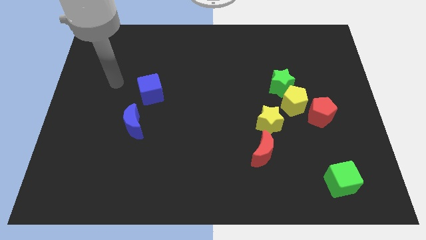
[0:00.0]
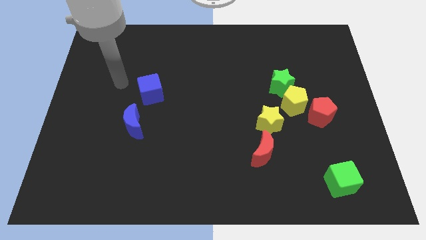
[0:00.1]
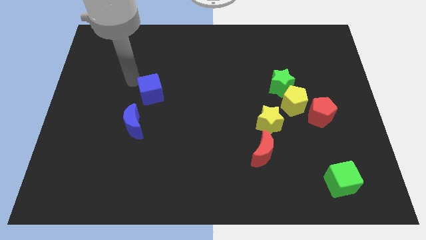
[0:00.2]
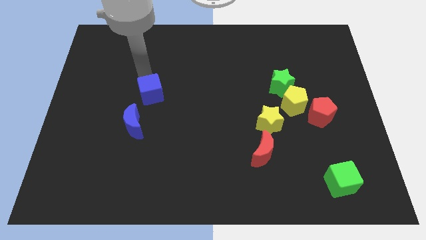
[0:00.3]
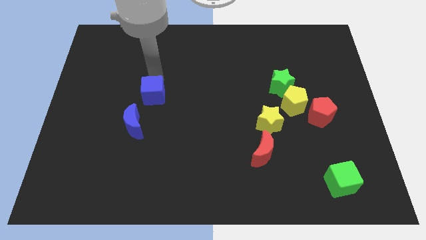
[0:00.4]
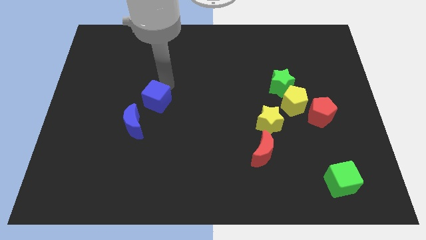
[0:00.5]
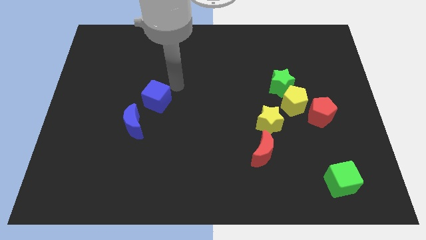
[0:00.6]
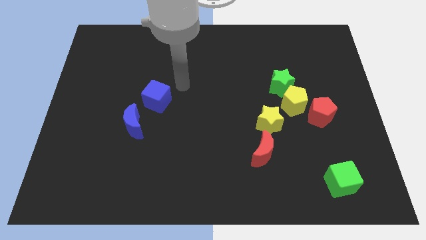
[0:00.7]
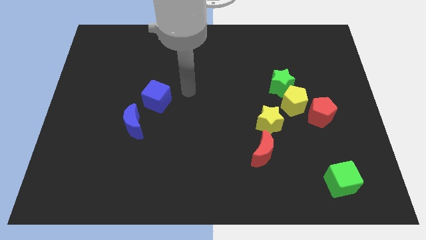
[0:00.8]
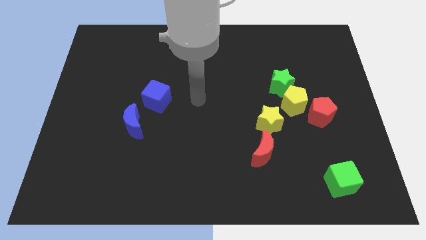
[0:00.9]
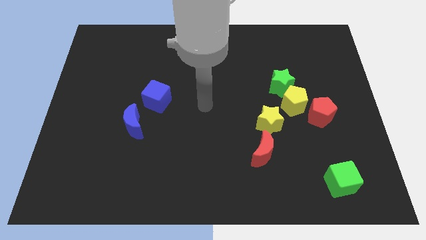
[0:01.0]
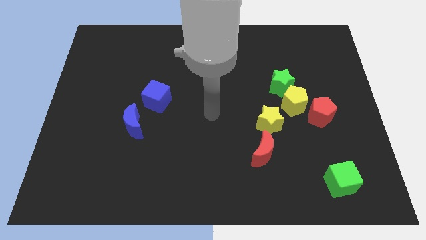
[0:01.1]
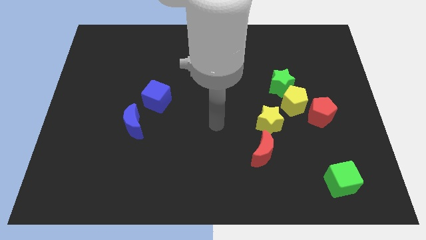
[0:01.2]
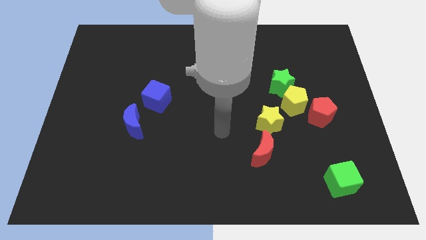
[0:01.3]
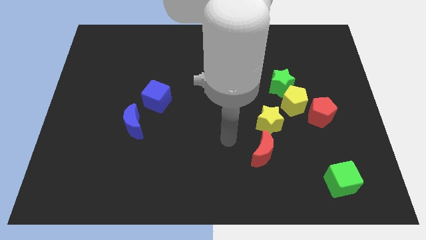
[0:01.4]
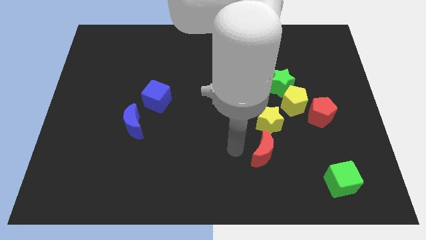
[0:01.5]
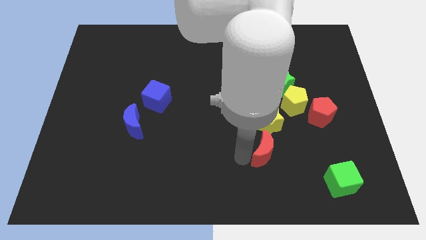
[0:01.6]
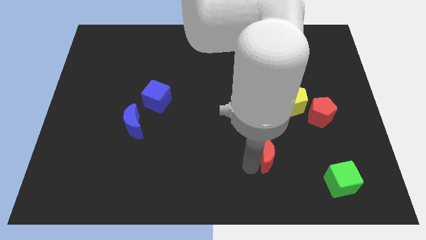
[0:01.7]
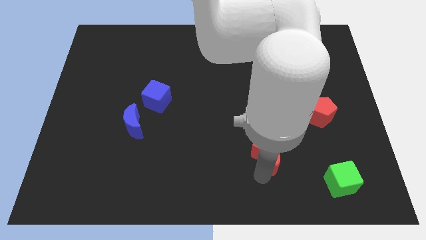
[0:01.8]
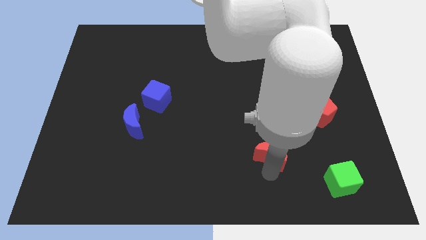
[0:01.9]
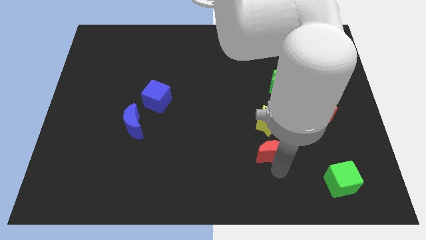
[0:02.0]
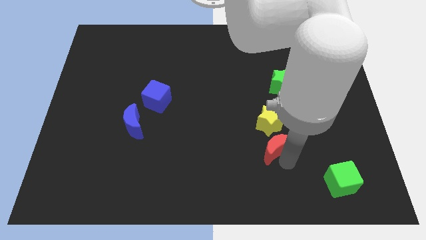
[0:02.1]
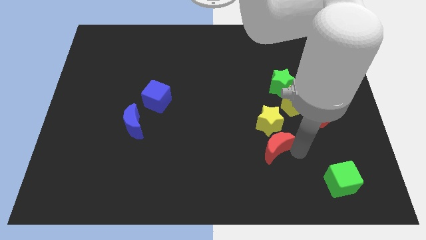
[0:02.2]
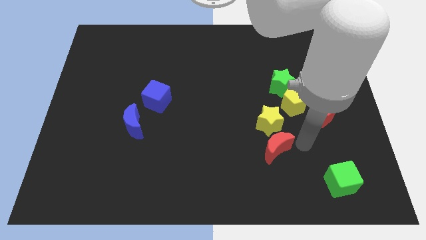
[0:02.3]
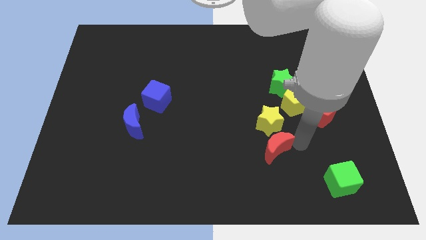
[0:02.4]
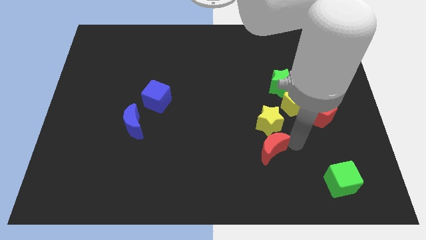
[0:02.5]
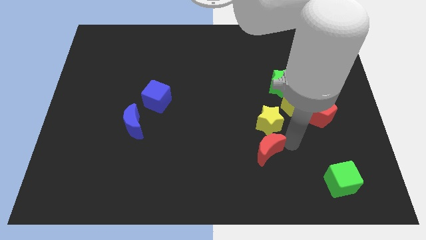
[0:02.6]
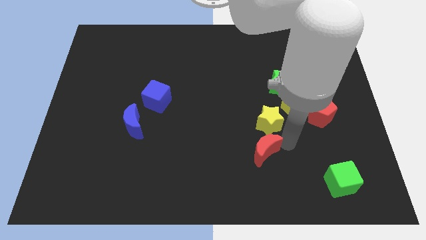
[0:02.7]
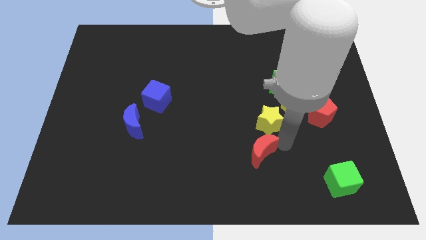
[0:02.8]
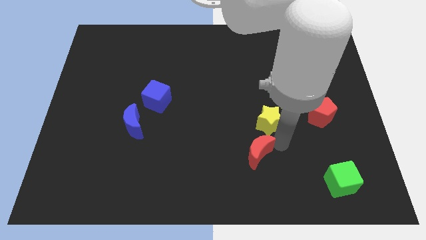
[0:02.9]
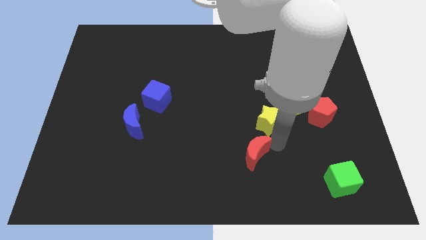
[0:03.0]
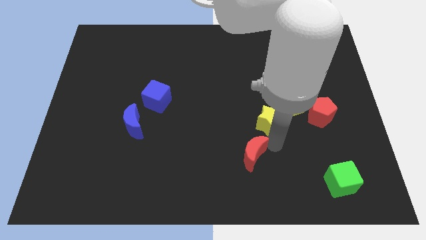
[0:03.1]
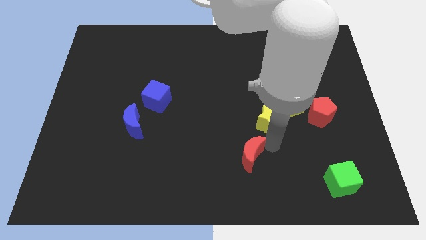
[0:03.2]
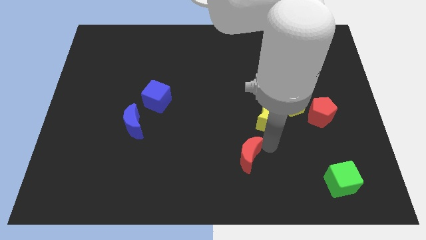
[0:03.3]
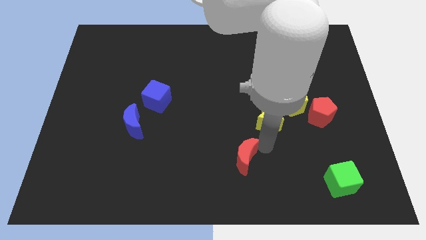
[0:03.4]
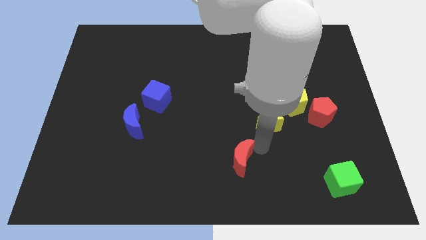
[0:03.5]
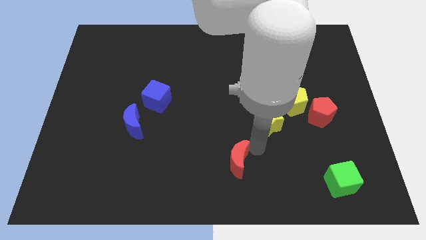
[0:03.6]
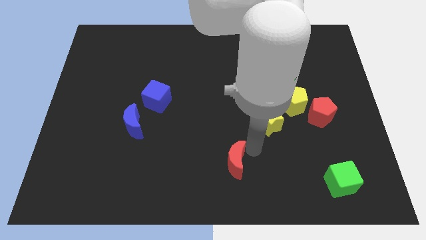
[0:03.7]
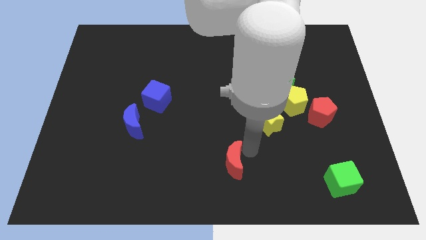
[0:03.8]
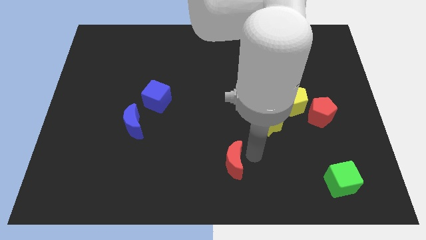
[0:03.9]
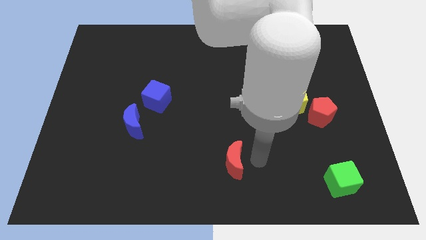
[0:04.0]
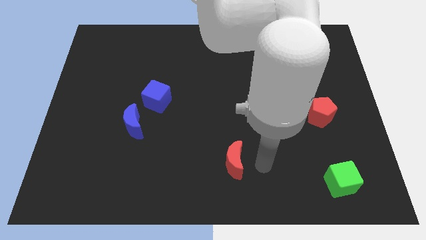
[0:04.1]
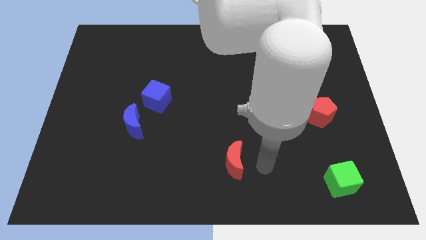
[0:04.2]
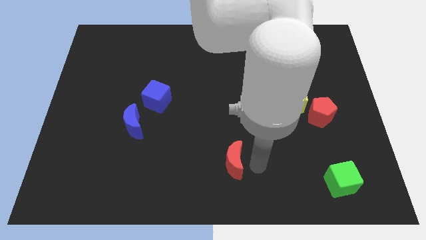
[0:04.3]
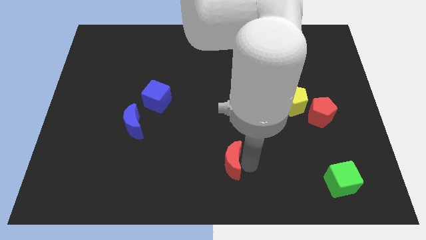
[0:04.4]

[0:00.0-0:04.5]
slide the red moon left a bit

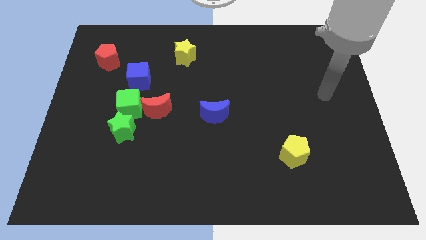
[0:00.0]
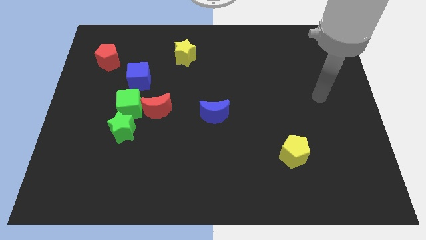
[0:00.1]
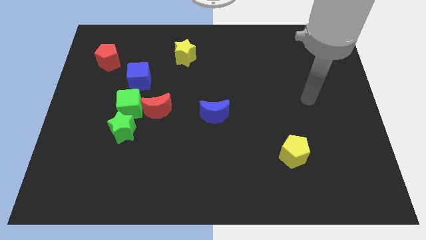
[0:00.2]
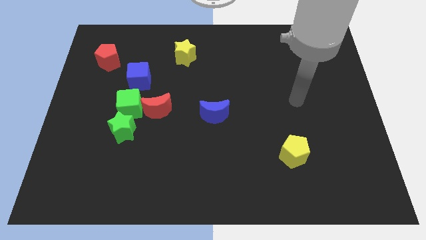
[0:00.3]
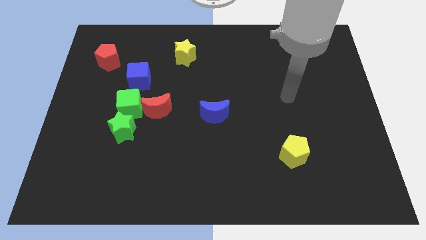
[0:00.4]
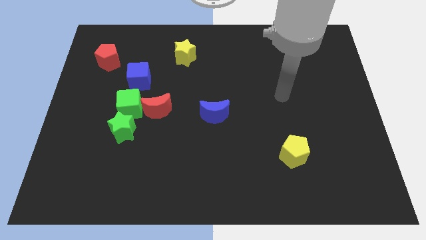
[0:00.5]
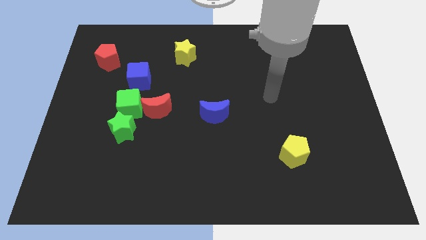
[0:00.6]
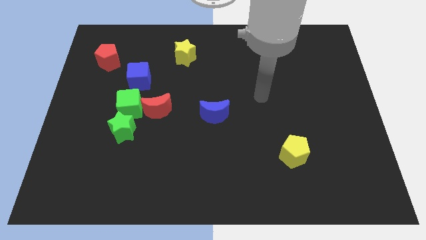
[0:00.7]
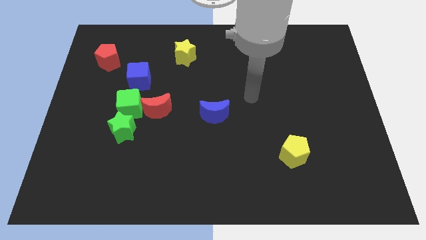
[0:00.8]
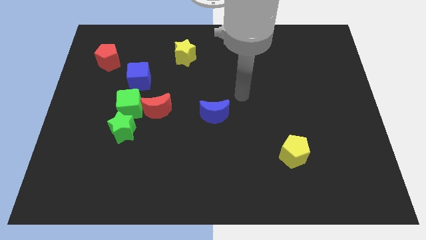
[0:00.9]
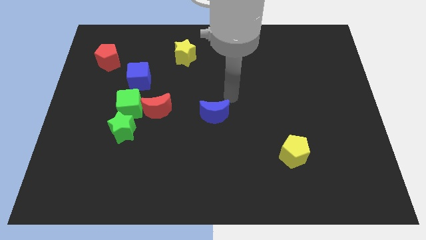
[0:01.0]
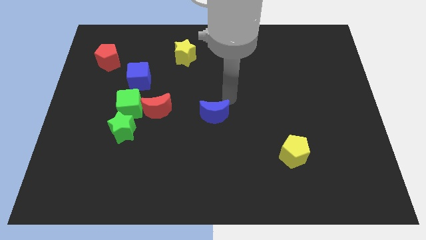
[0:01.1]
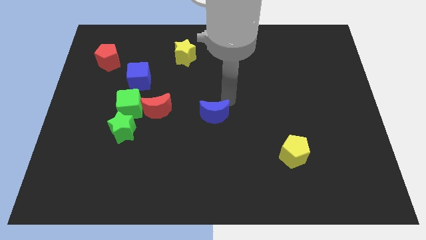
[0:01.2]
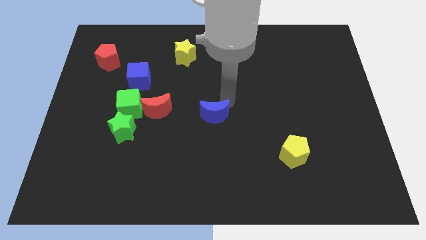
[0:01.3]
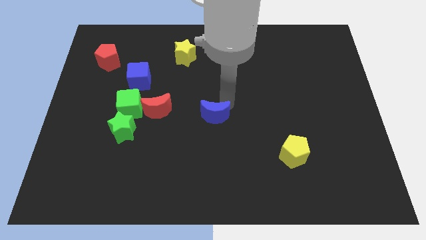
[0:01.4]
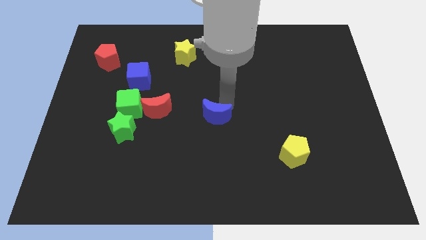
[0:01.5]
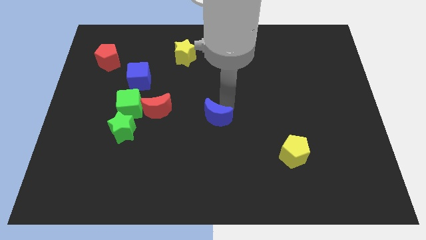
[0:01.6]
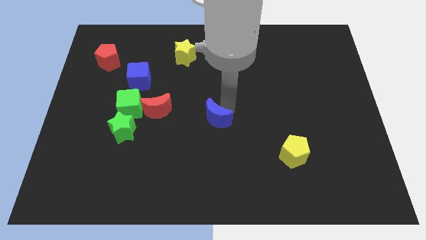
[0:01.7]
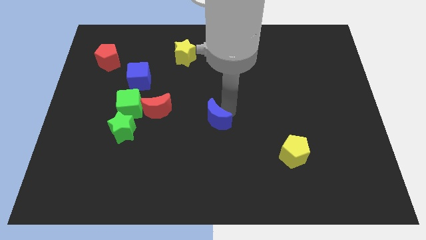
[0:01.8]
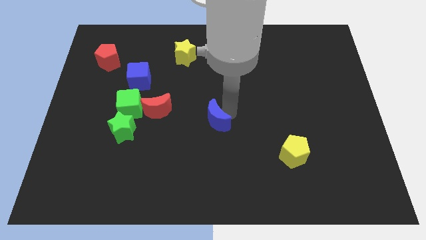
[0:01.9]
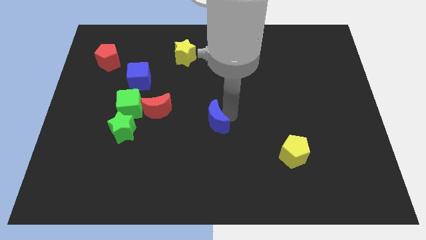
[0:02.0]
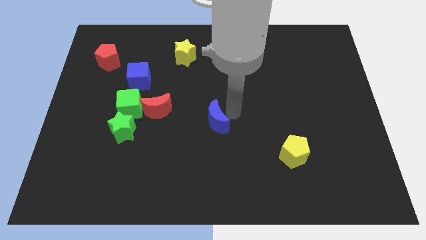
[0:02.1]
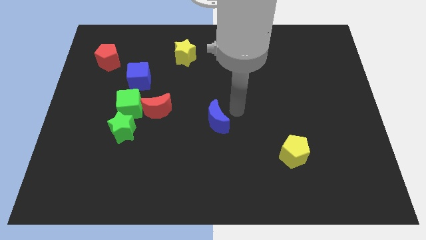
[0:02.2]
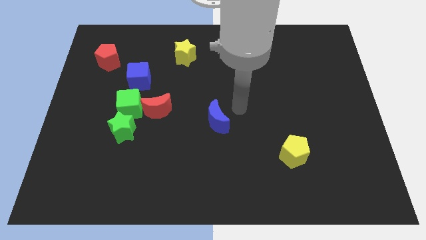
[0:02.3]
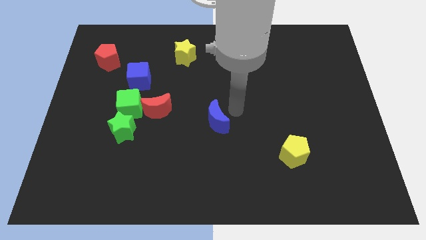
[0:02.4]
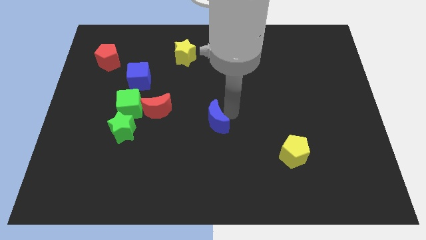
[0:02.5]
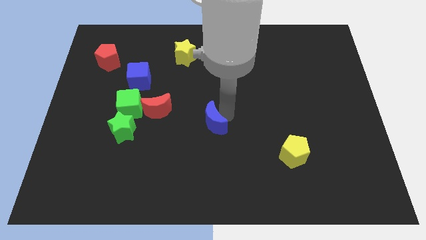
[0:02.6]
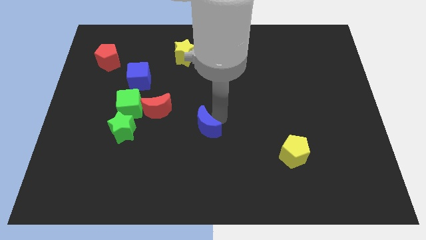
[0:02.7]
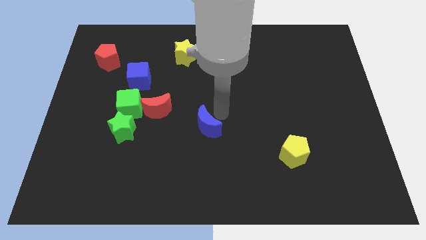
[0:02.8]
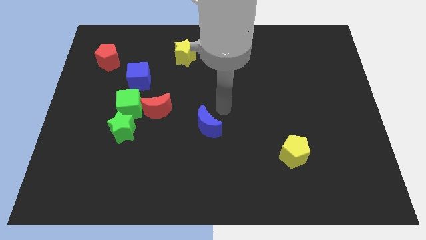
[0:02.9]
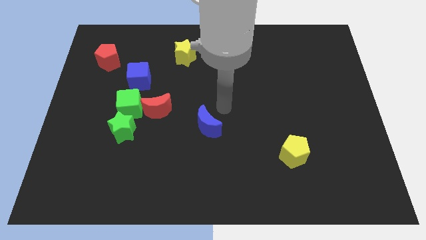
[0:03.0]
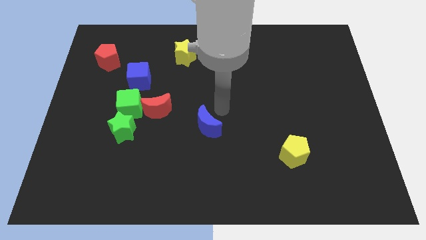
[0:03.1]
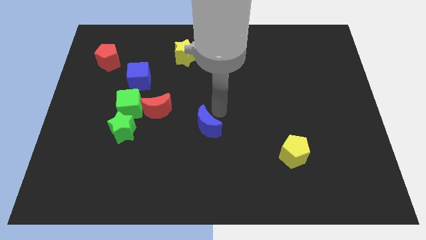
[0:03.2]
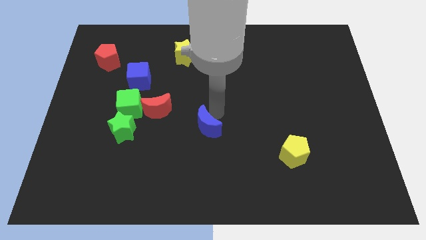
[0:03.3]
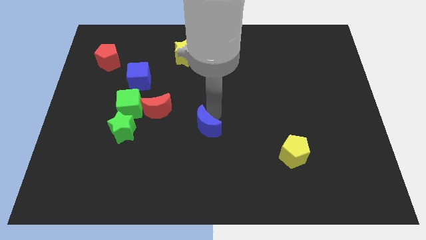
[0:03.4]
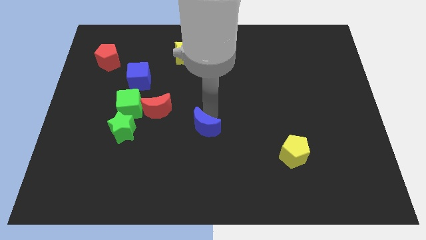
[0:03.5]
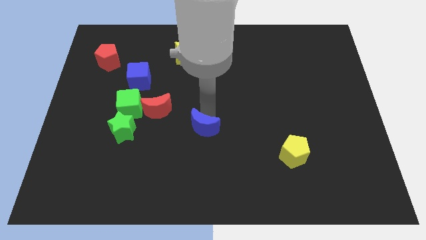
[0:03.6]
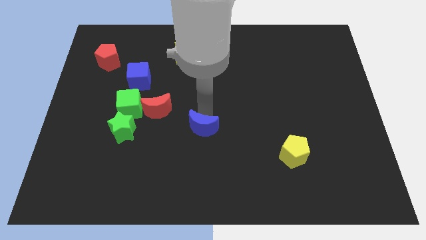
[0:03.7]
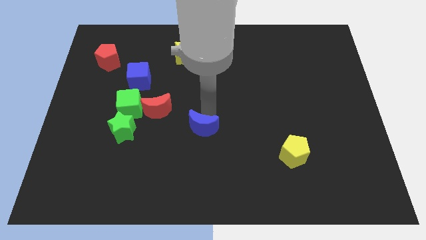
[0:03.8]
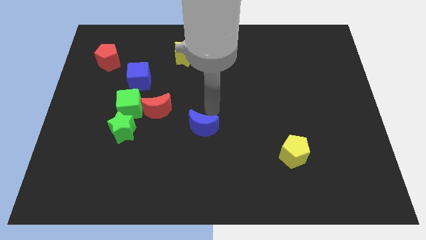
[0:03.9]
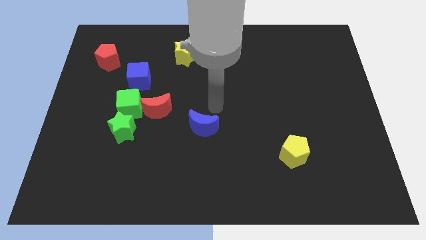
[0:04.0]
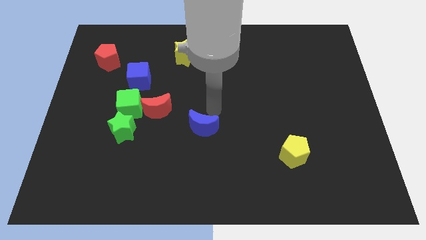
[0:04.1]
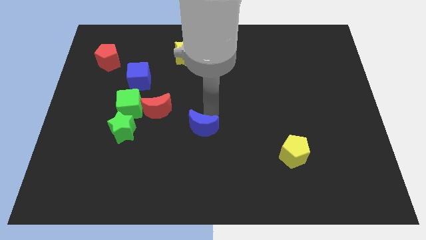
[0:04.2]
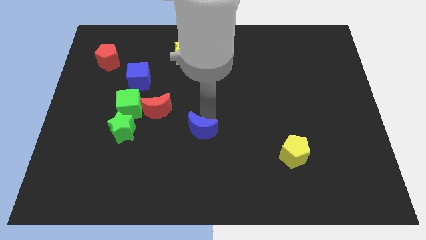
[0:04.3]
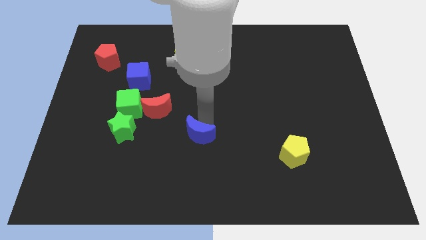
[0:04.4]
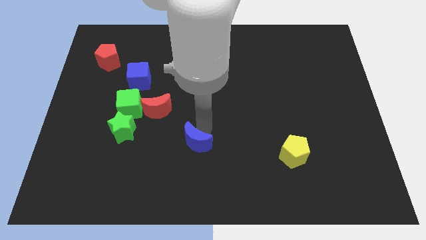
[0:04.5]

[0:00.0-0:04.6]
slightly slide the blue moon downwards and to the left diagonally
